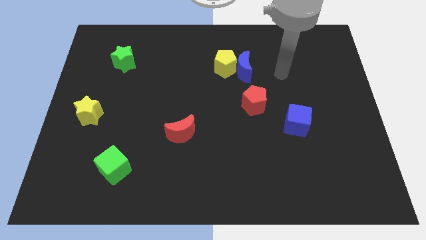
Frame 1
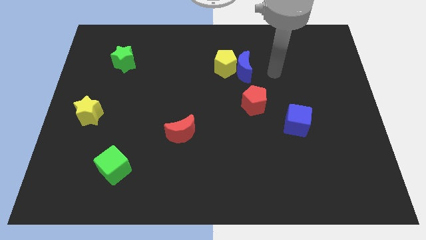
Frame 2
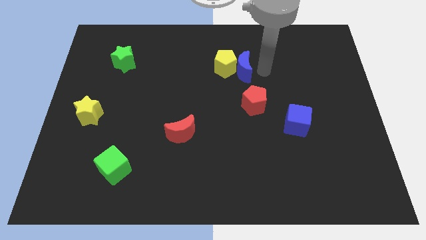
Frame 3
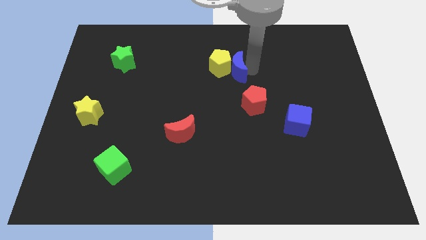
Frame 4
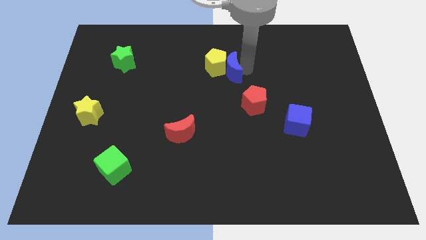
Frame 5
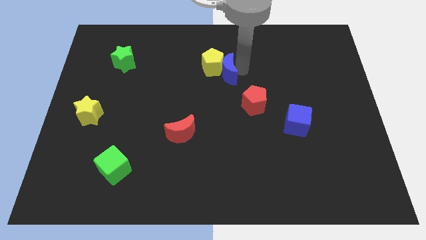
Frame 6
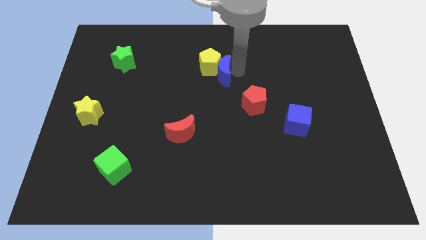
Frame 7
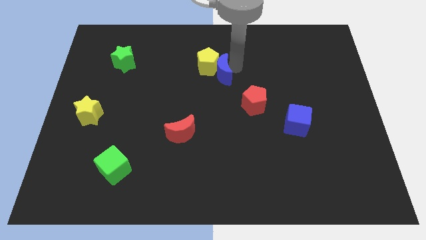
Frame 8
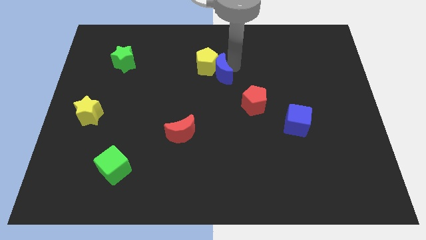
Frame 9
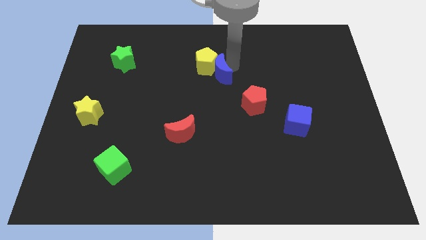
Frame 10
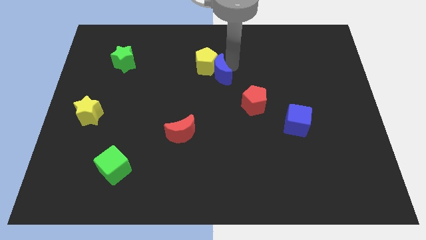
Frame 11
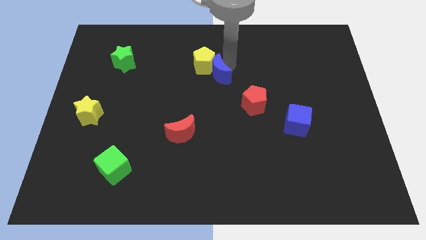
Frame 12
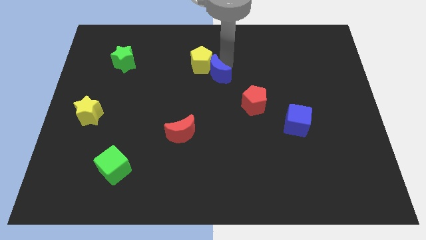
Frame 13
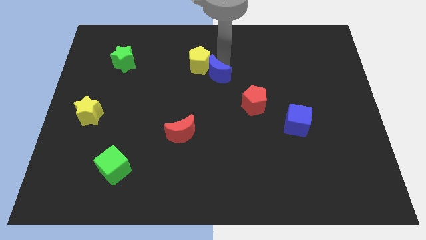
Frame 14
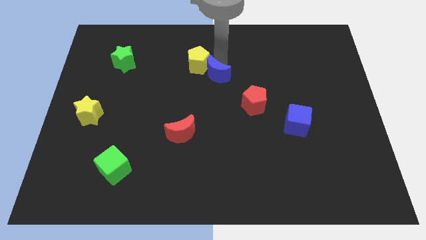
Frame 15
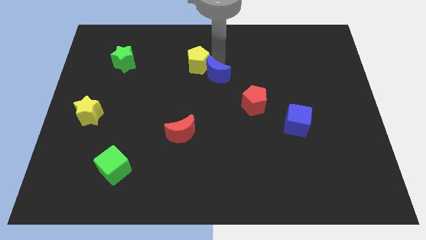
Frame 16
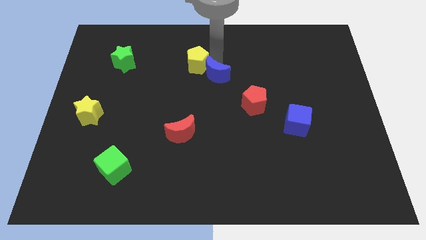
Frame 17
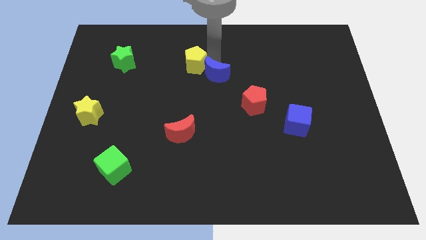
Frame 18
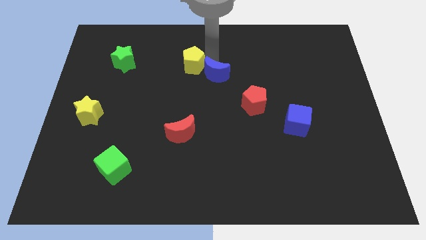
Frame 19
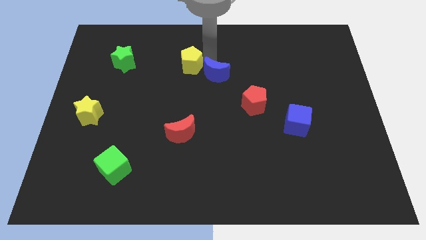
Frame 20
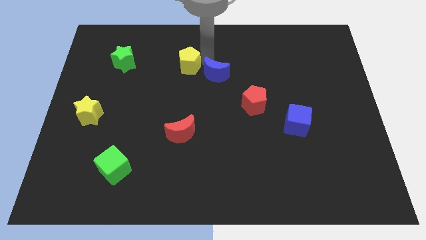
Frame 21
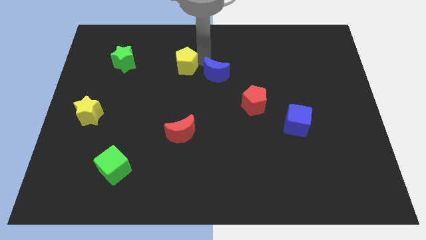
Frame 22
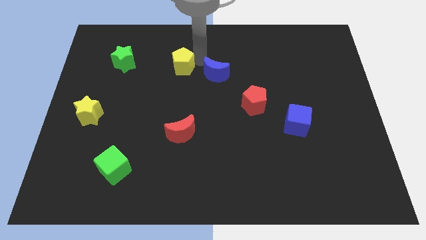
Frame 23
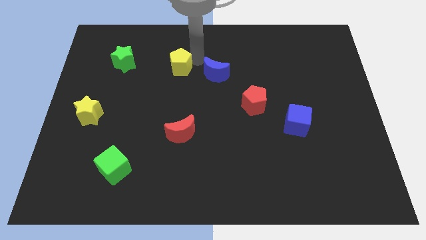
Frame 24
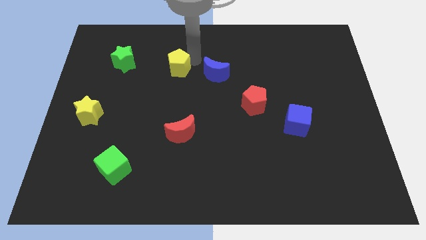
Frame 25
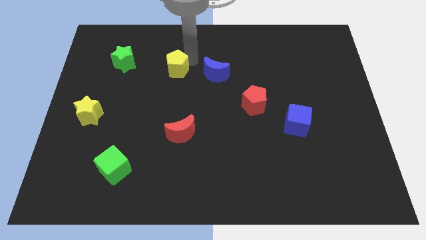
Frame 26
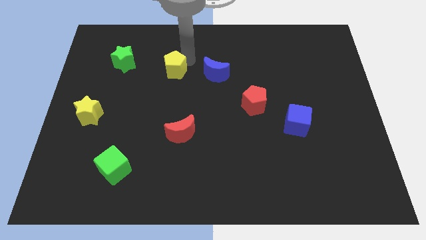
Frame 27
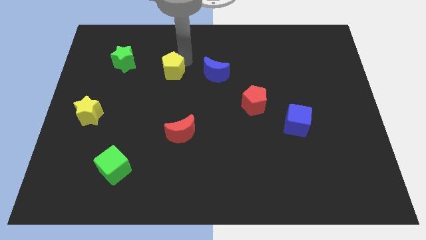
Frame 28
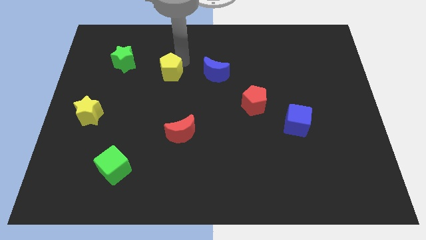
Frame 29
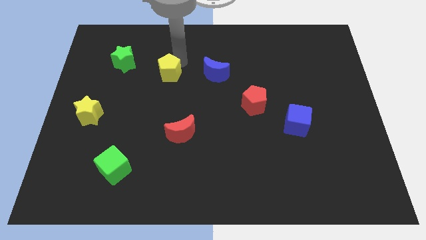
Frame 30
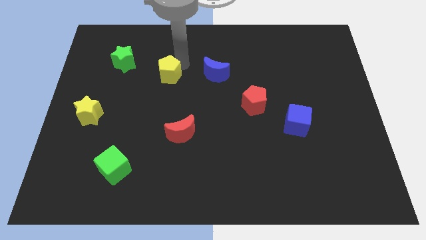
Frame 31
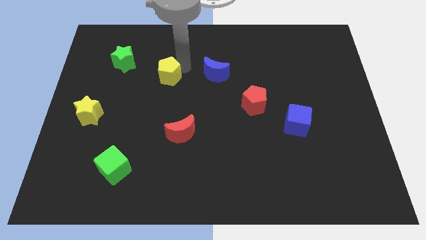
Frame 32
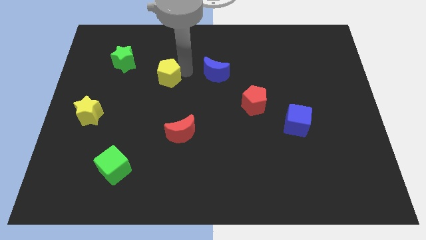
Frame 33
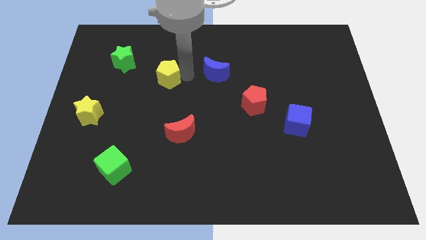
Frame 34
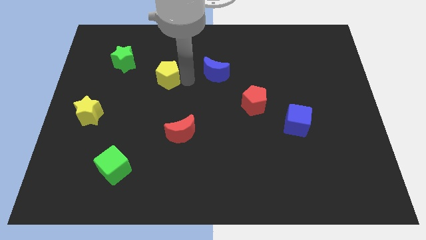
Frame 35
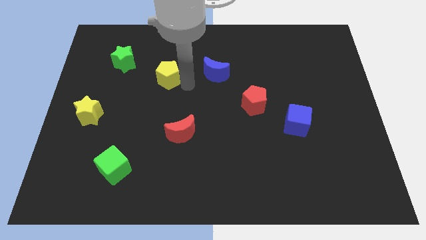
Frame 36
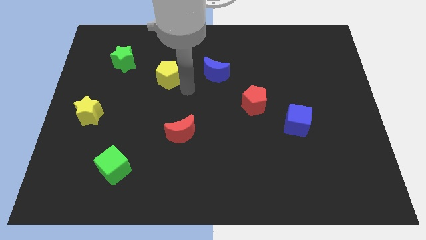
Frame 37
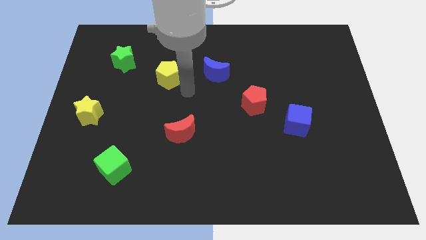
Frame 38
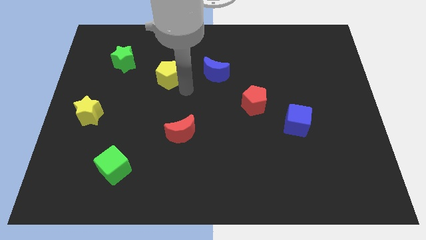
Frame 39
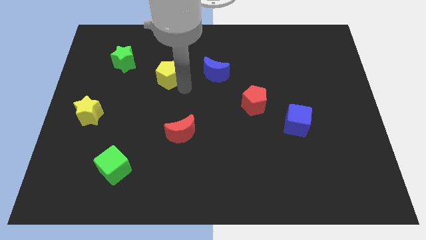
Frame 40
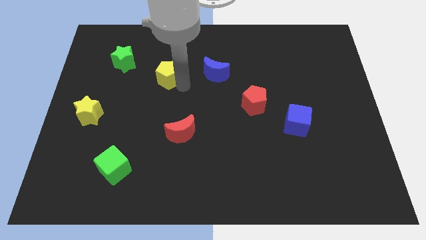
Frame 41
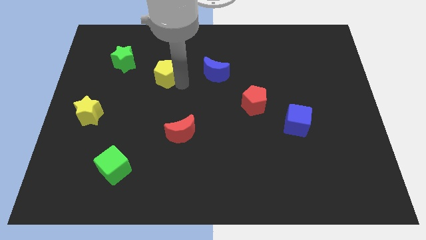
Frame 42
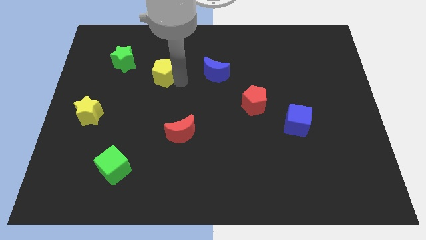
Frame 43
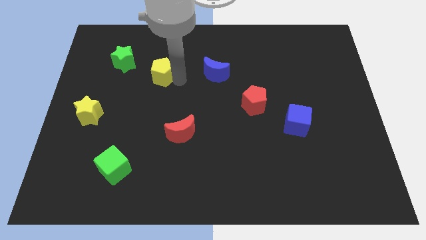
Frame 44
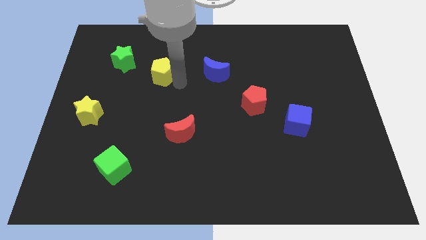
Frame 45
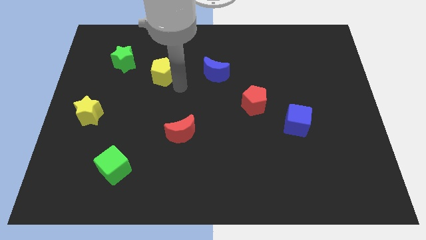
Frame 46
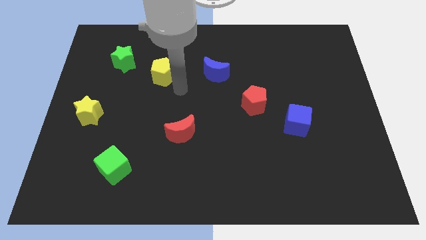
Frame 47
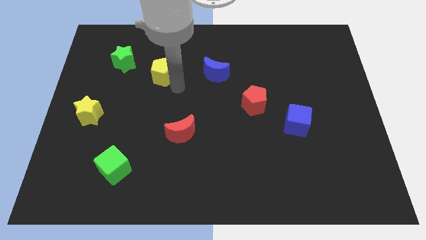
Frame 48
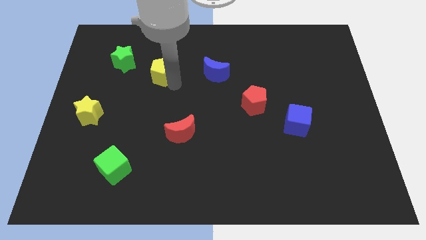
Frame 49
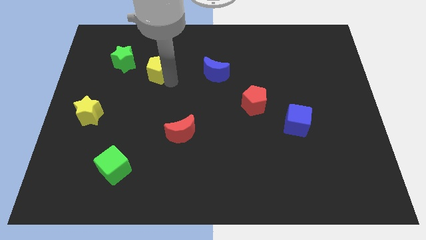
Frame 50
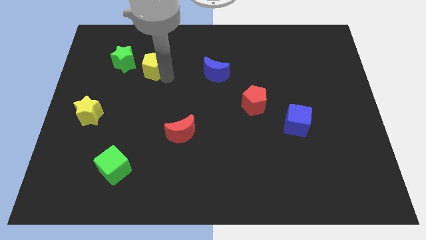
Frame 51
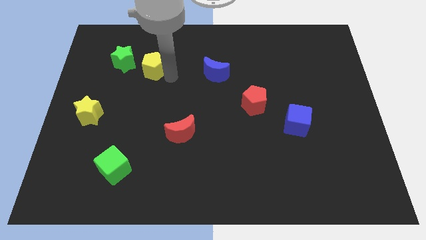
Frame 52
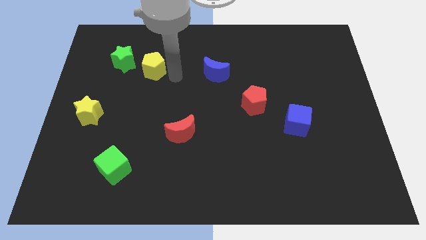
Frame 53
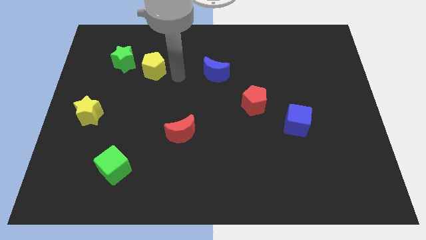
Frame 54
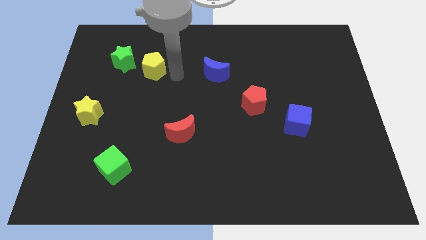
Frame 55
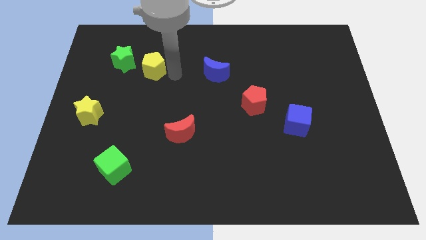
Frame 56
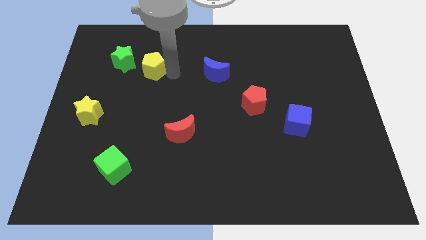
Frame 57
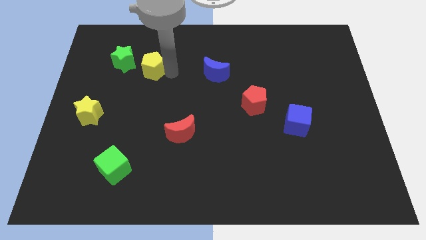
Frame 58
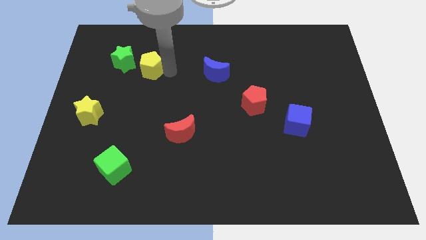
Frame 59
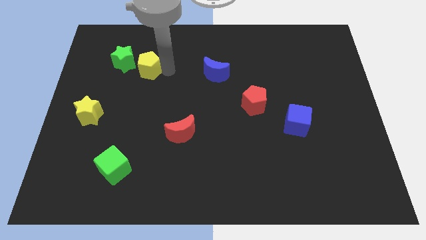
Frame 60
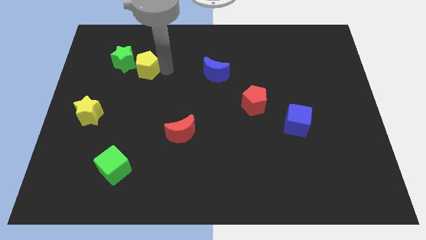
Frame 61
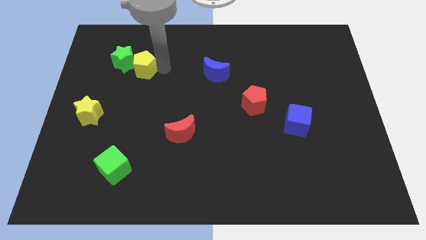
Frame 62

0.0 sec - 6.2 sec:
move the yellow pentagon close to the green star

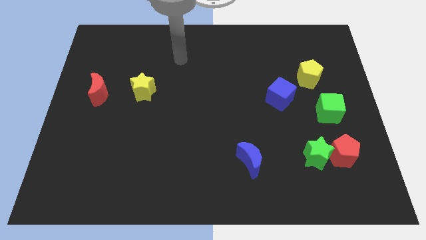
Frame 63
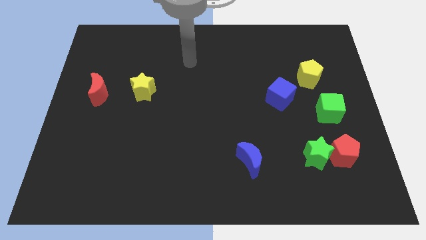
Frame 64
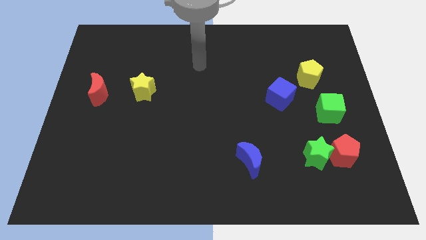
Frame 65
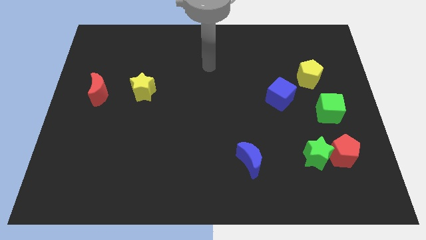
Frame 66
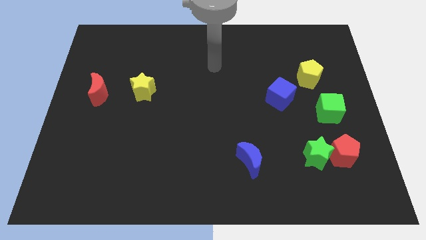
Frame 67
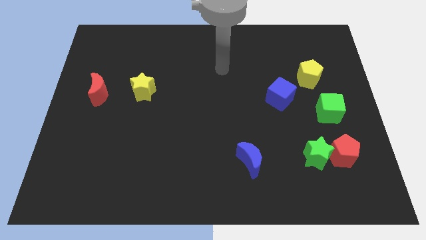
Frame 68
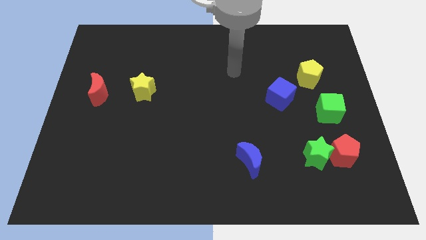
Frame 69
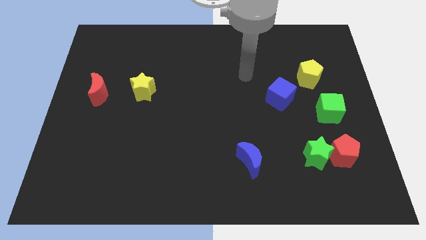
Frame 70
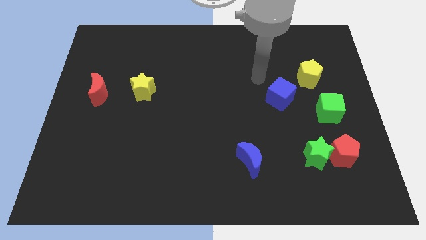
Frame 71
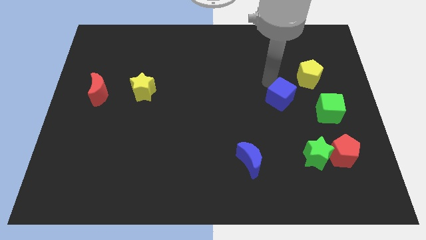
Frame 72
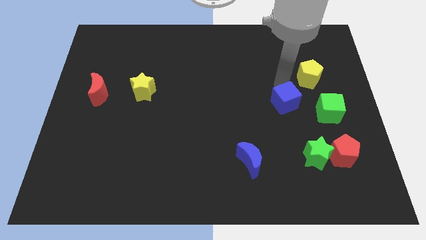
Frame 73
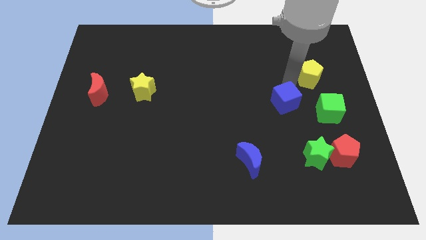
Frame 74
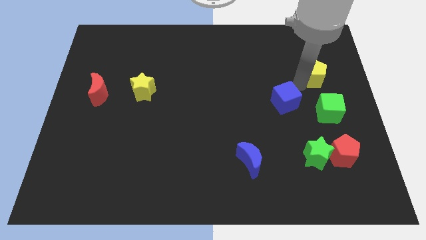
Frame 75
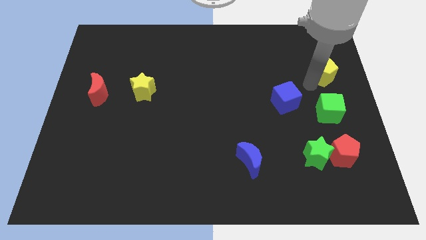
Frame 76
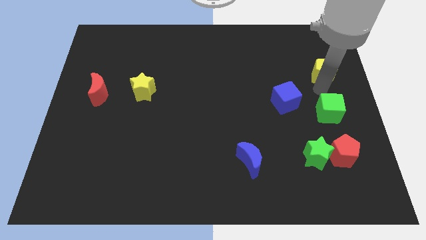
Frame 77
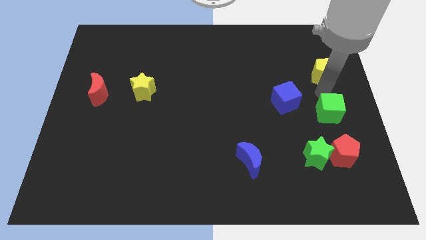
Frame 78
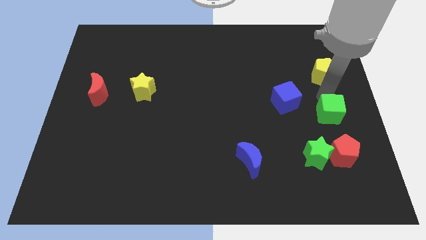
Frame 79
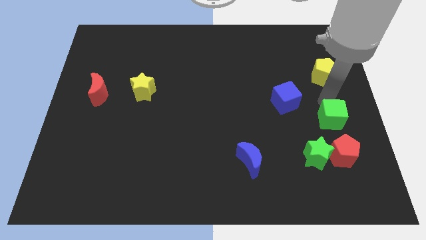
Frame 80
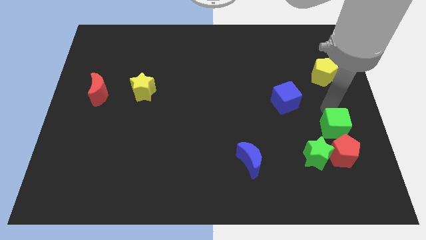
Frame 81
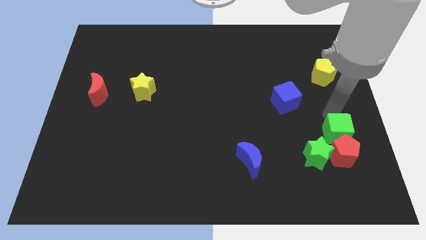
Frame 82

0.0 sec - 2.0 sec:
put the green cube to the red pentagon
